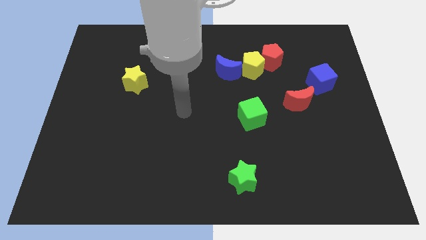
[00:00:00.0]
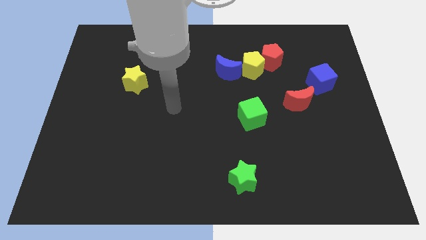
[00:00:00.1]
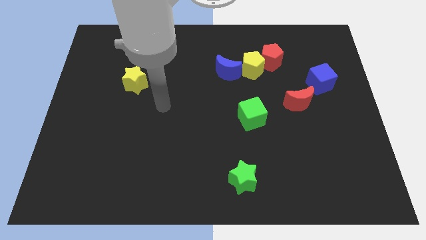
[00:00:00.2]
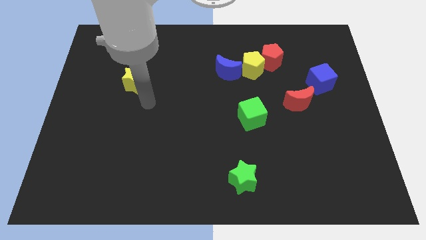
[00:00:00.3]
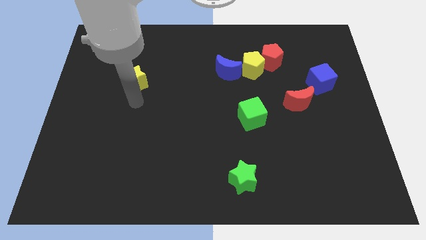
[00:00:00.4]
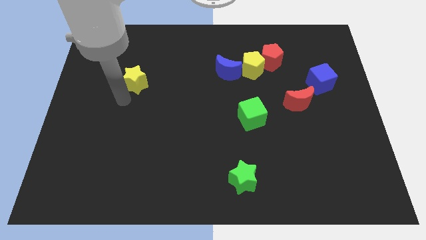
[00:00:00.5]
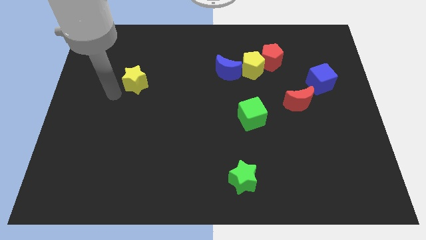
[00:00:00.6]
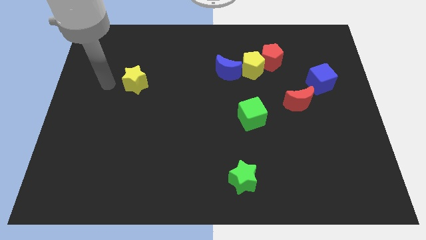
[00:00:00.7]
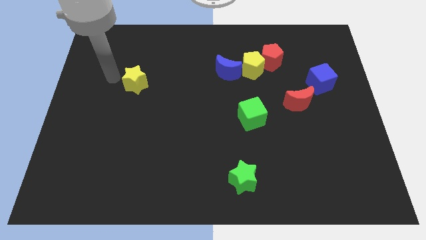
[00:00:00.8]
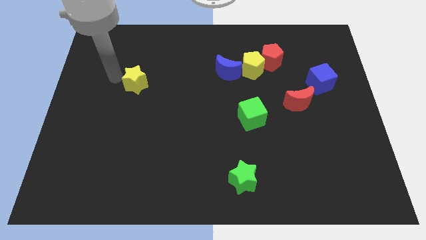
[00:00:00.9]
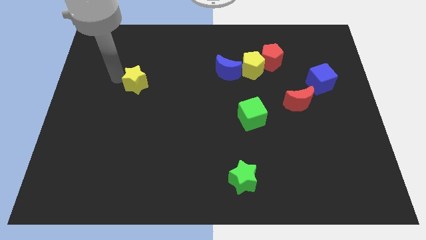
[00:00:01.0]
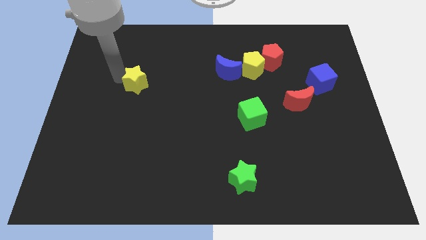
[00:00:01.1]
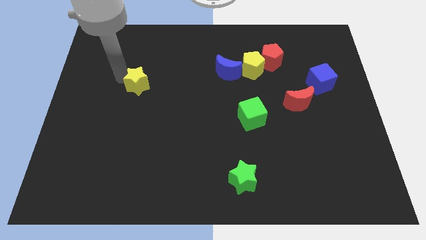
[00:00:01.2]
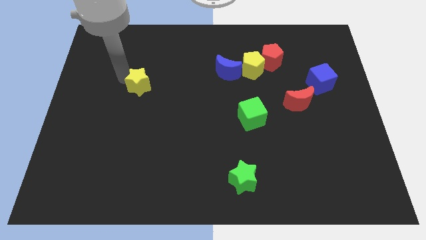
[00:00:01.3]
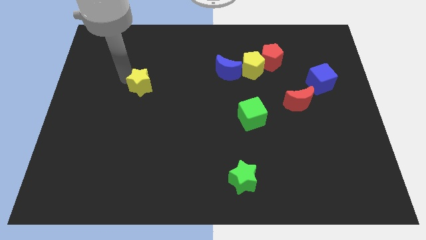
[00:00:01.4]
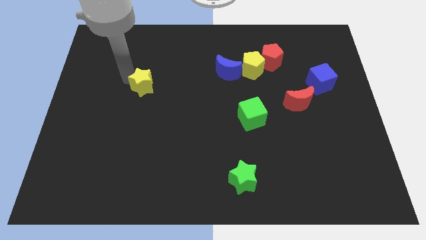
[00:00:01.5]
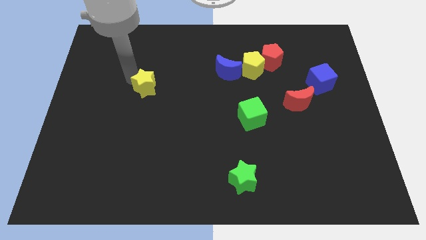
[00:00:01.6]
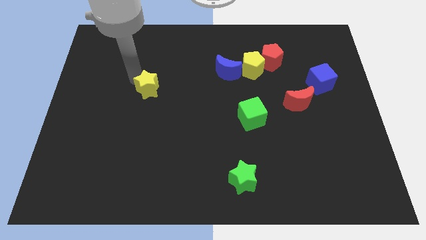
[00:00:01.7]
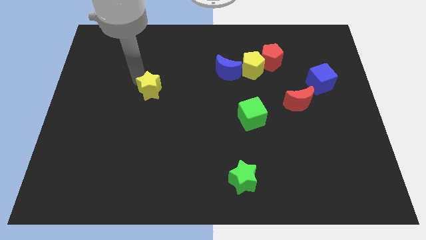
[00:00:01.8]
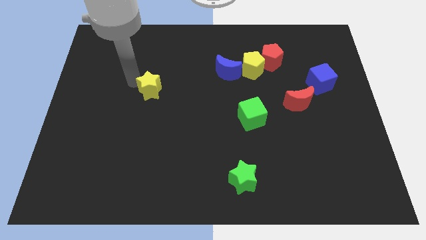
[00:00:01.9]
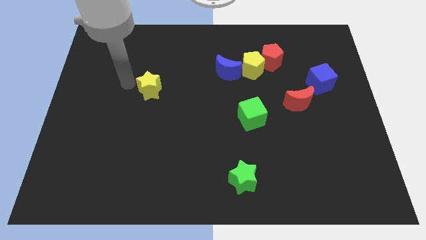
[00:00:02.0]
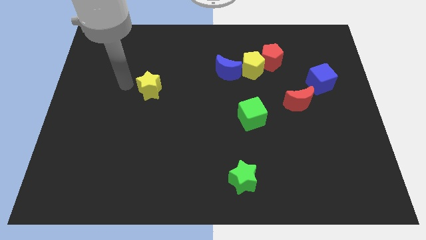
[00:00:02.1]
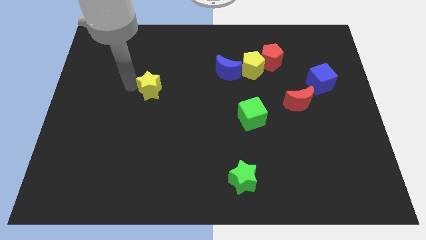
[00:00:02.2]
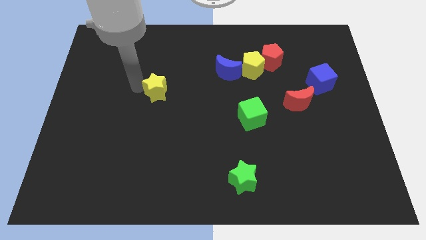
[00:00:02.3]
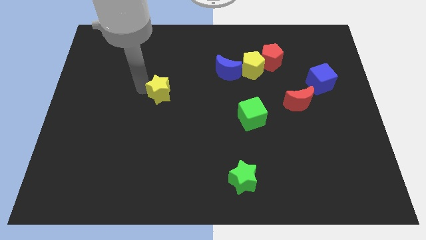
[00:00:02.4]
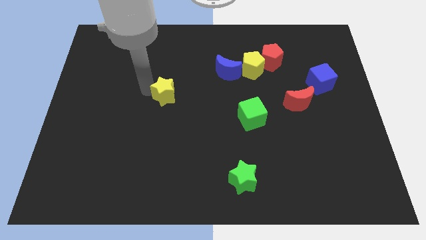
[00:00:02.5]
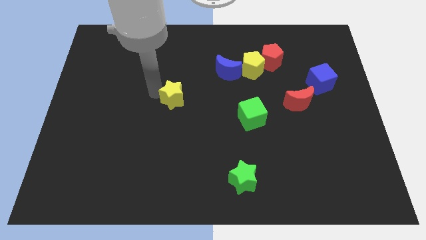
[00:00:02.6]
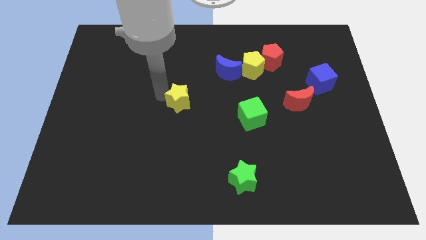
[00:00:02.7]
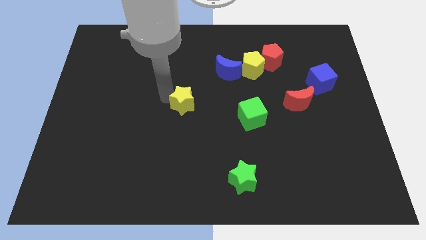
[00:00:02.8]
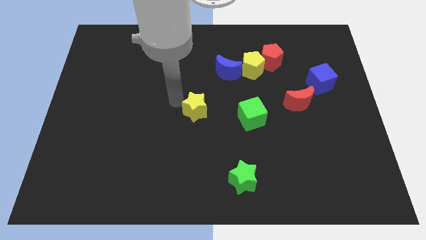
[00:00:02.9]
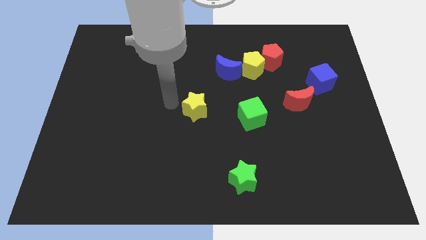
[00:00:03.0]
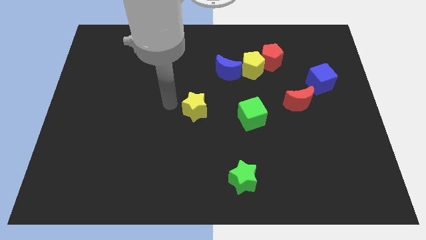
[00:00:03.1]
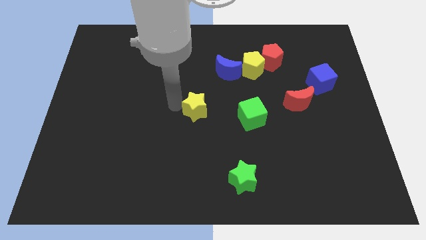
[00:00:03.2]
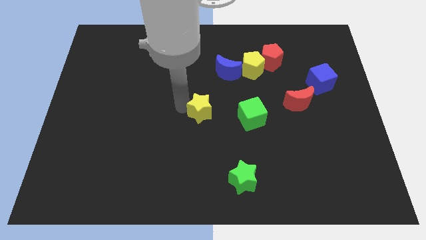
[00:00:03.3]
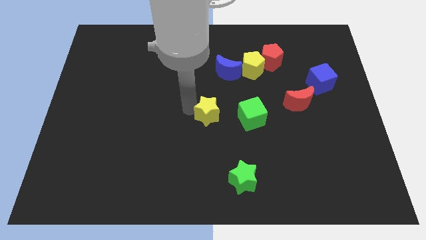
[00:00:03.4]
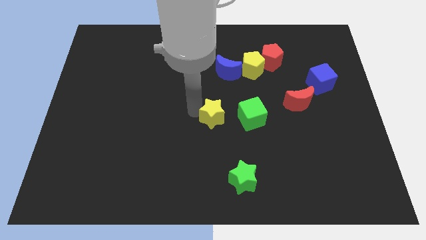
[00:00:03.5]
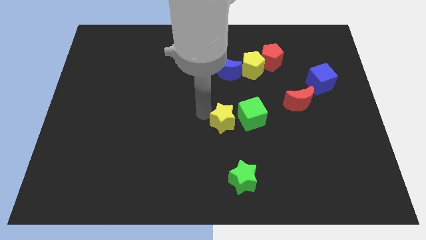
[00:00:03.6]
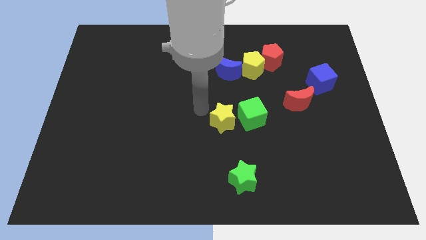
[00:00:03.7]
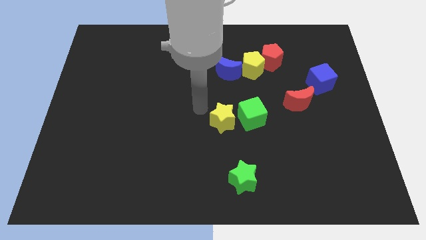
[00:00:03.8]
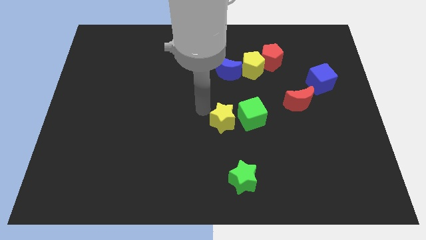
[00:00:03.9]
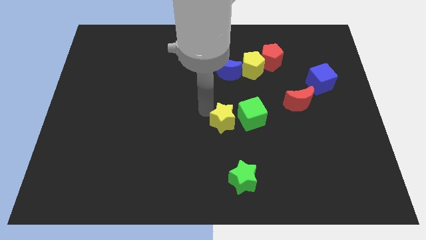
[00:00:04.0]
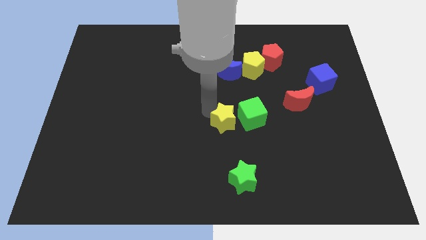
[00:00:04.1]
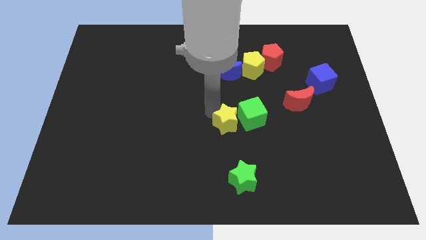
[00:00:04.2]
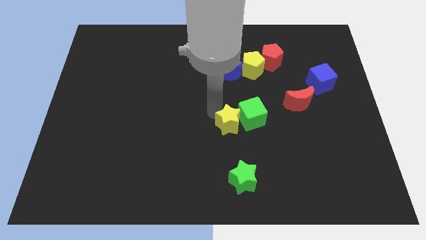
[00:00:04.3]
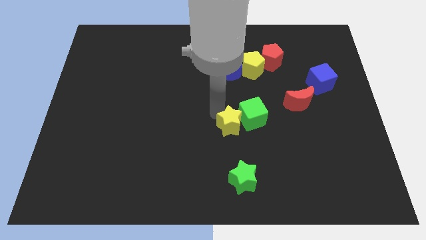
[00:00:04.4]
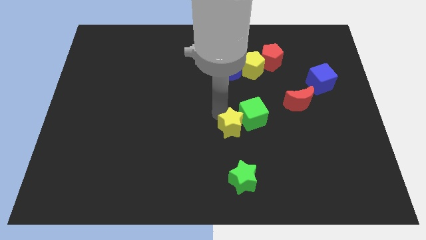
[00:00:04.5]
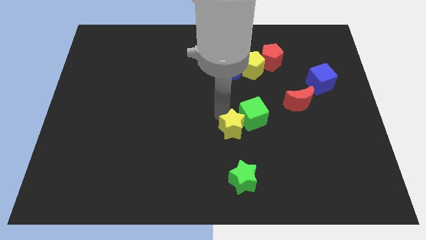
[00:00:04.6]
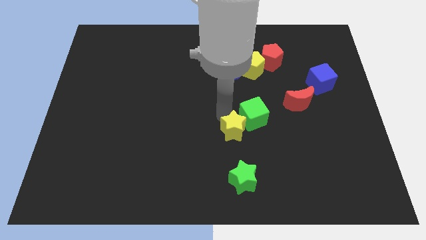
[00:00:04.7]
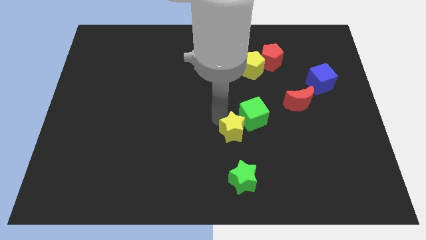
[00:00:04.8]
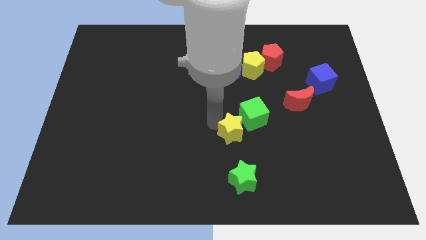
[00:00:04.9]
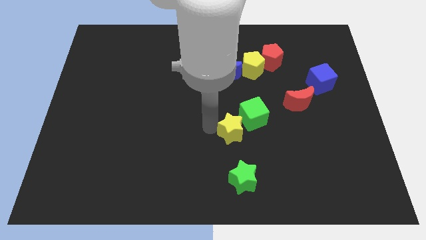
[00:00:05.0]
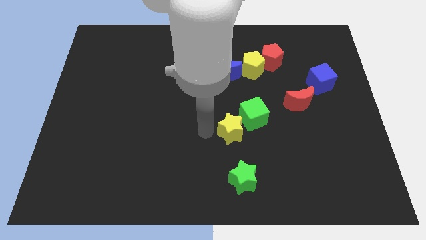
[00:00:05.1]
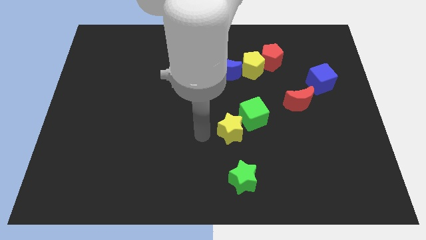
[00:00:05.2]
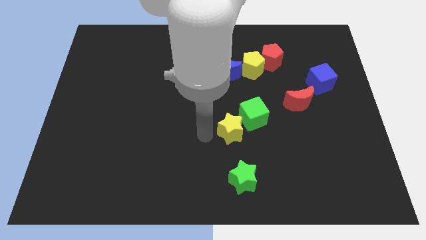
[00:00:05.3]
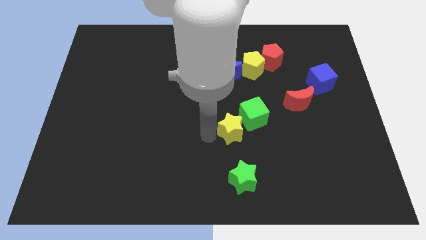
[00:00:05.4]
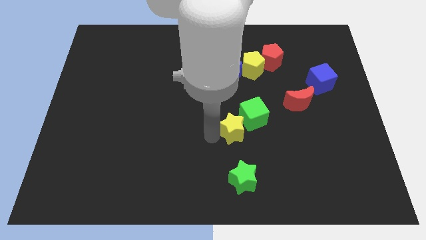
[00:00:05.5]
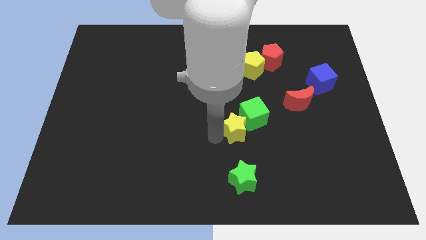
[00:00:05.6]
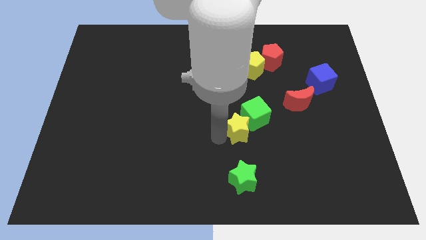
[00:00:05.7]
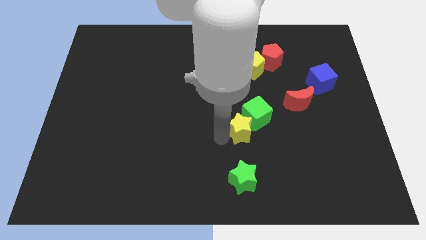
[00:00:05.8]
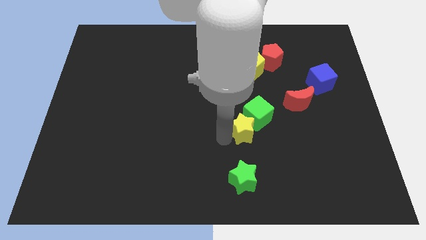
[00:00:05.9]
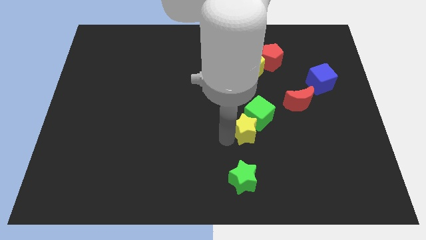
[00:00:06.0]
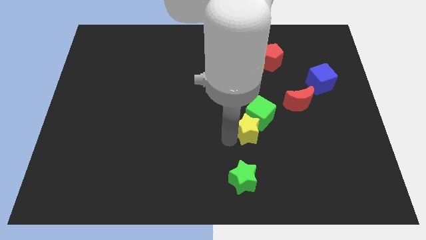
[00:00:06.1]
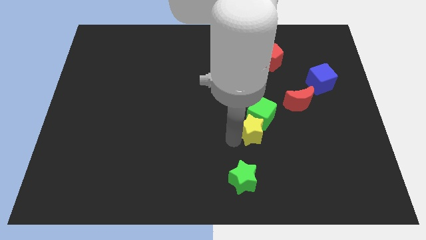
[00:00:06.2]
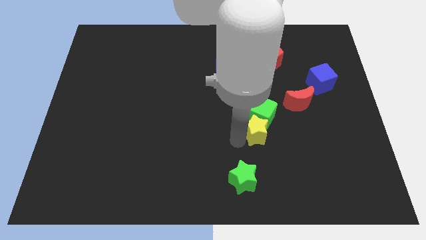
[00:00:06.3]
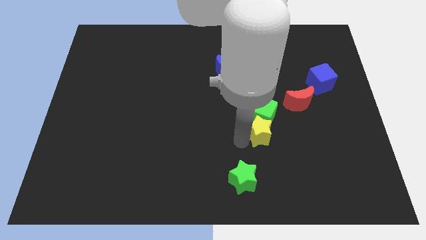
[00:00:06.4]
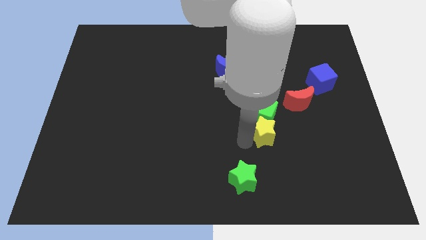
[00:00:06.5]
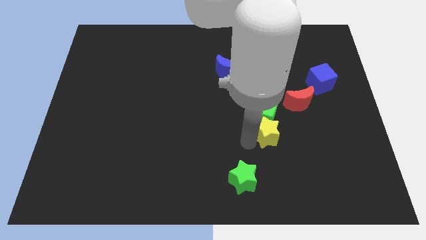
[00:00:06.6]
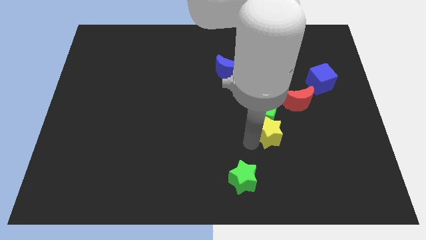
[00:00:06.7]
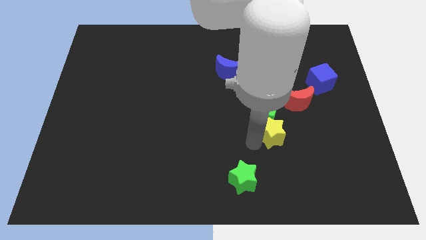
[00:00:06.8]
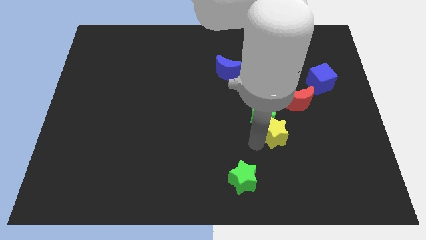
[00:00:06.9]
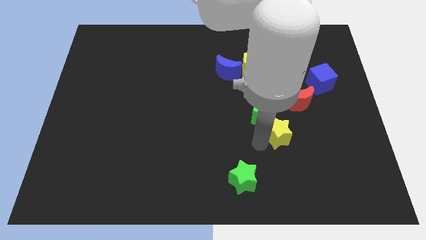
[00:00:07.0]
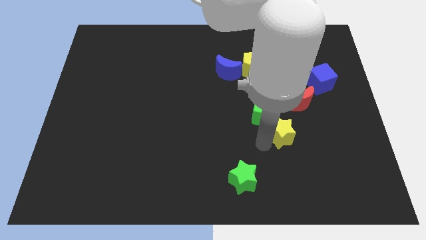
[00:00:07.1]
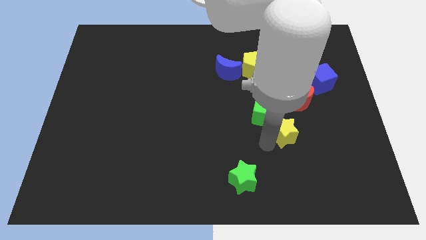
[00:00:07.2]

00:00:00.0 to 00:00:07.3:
slide the yellow star to the bottom side of the red moon
